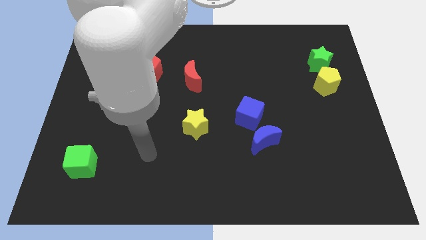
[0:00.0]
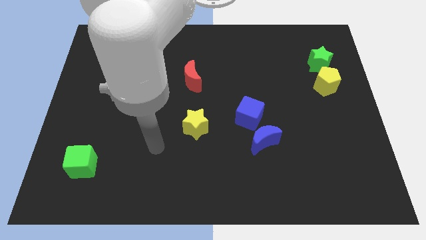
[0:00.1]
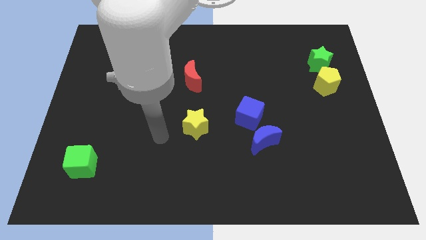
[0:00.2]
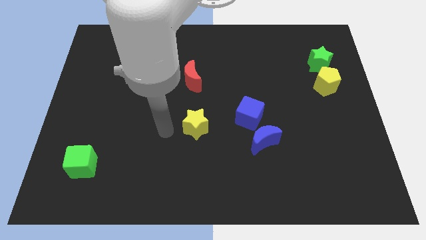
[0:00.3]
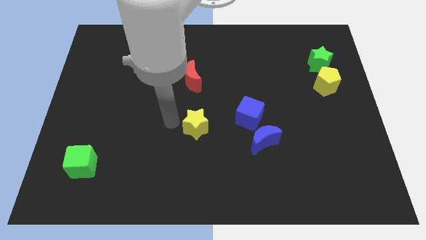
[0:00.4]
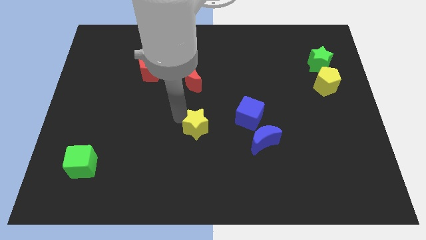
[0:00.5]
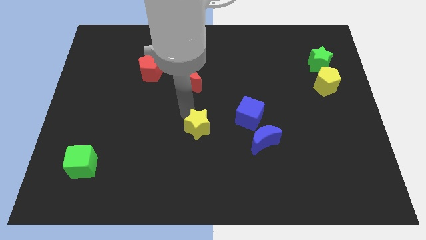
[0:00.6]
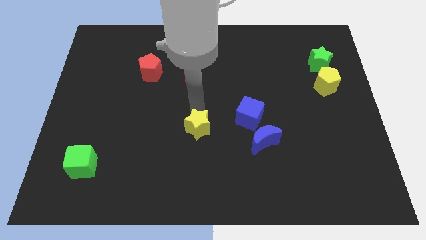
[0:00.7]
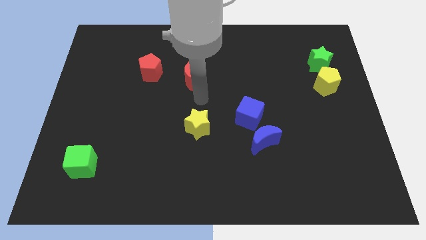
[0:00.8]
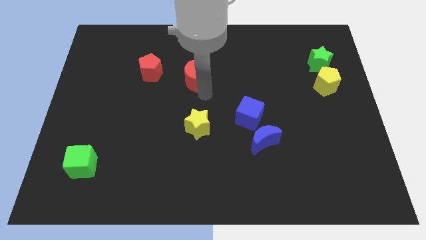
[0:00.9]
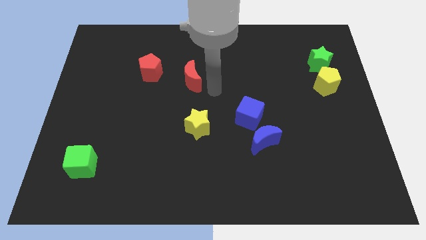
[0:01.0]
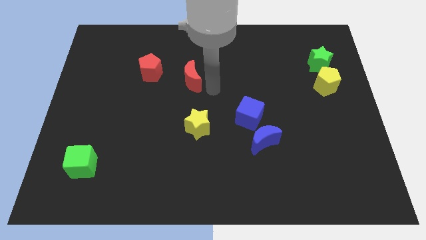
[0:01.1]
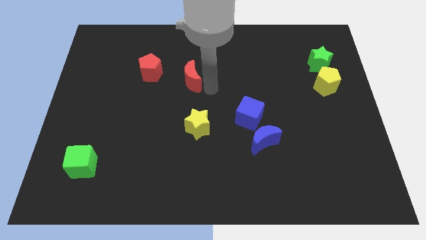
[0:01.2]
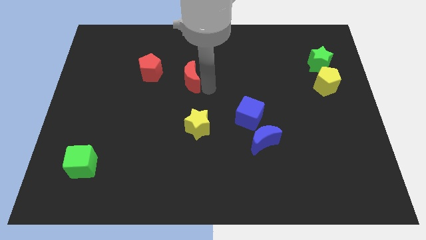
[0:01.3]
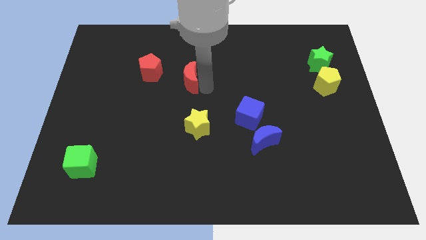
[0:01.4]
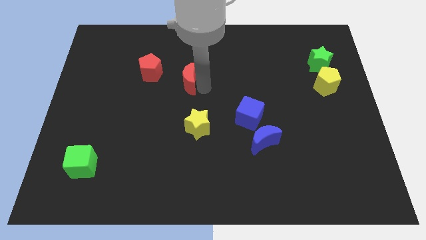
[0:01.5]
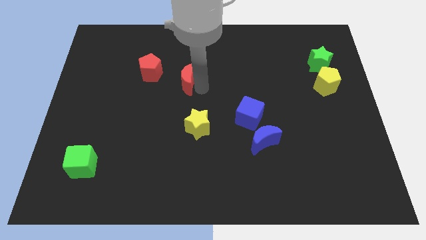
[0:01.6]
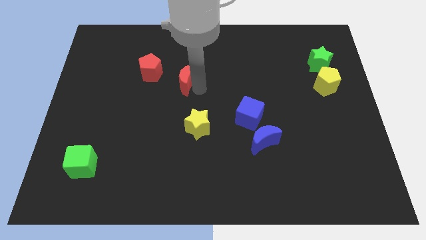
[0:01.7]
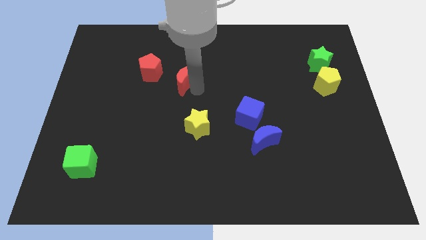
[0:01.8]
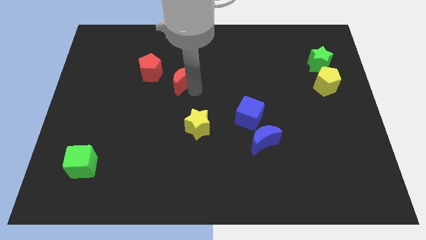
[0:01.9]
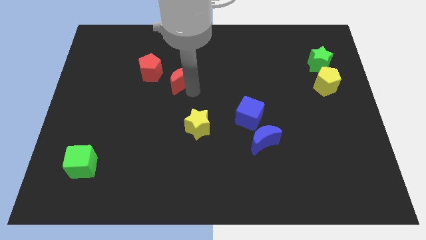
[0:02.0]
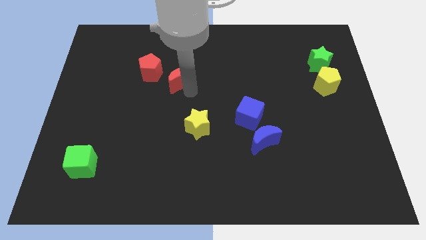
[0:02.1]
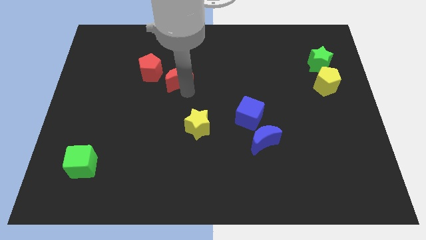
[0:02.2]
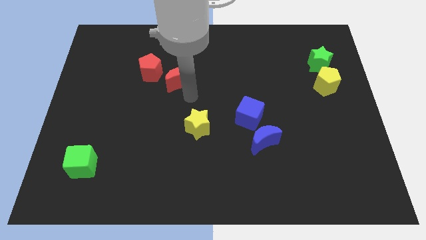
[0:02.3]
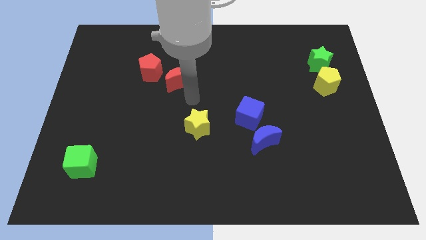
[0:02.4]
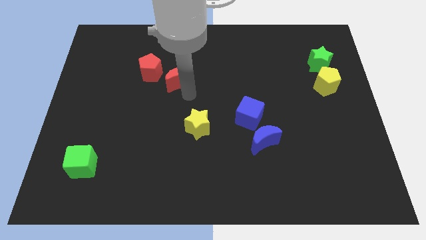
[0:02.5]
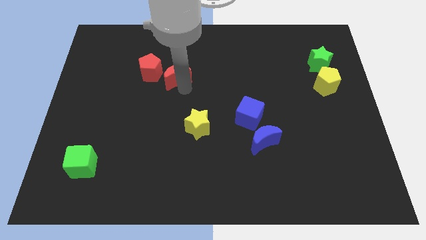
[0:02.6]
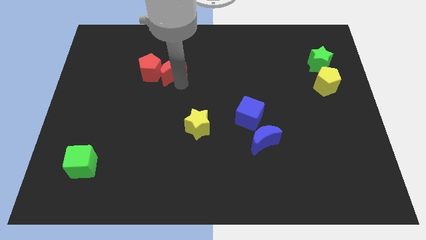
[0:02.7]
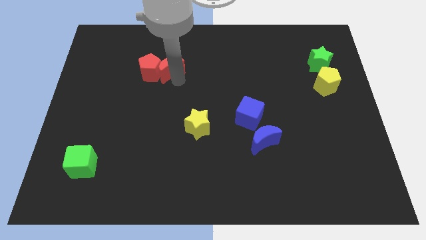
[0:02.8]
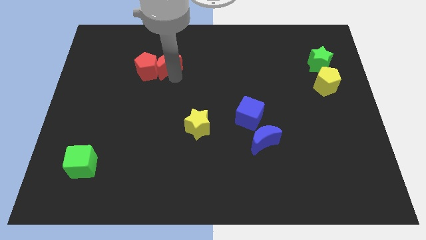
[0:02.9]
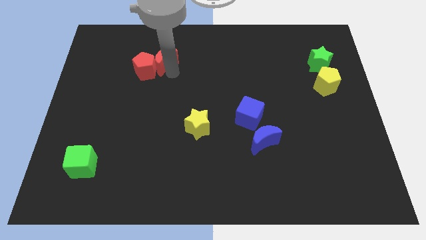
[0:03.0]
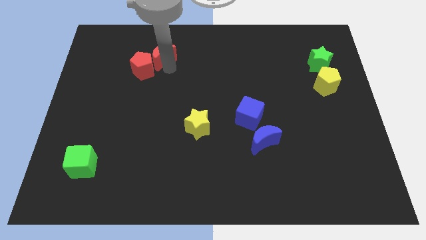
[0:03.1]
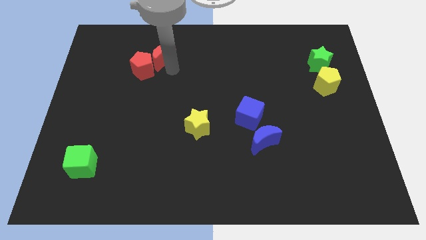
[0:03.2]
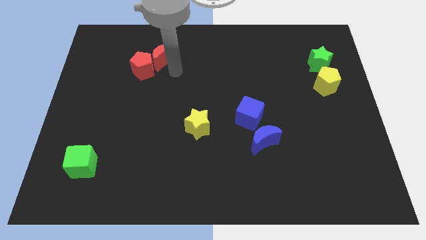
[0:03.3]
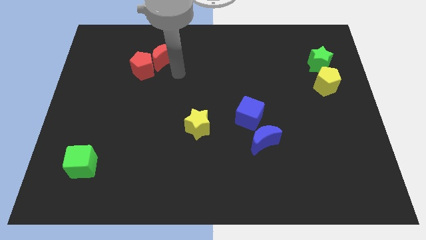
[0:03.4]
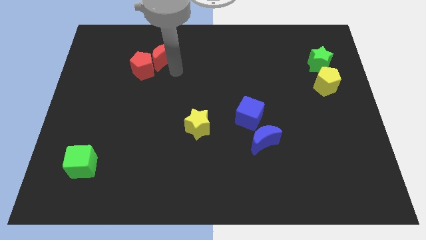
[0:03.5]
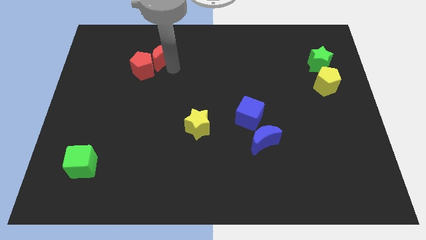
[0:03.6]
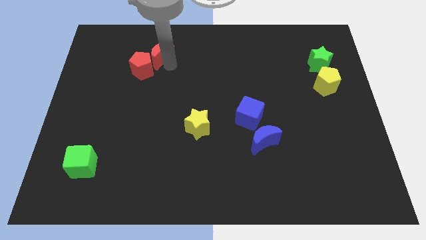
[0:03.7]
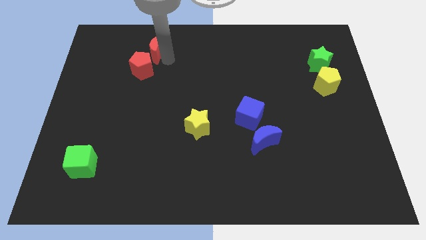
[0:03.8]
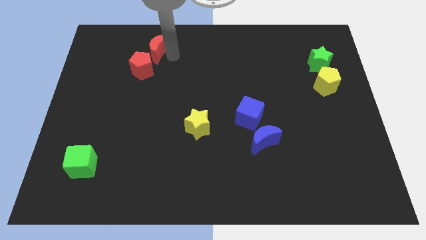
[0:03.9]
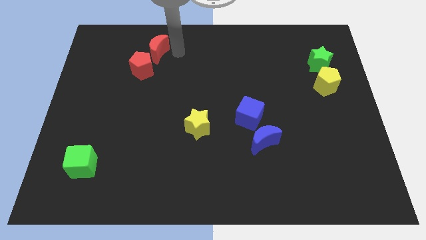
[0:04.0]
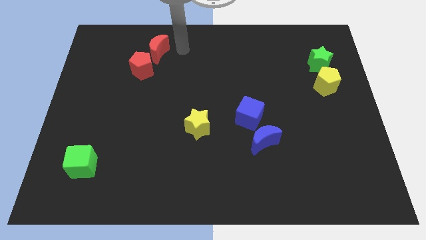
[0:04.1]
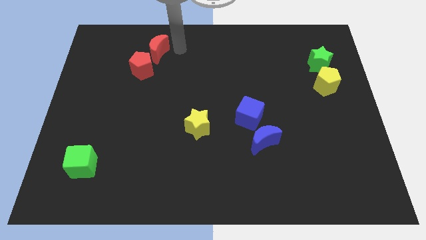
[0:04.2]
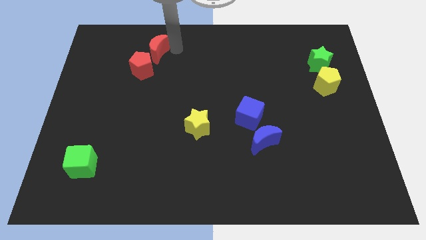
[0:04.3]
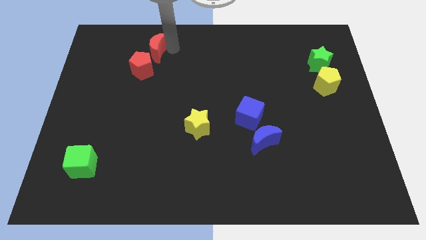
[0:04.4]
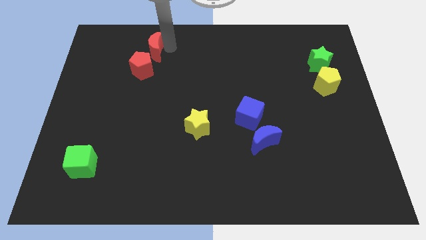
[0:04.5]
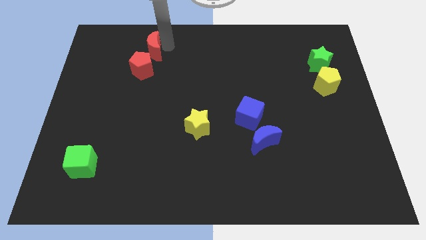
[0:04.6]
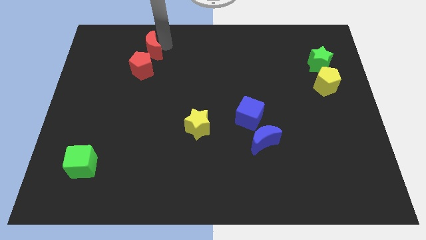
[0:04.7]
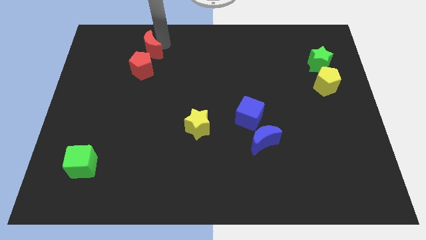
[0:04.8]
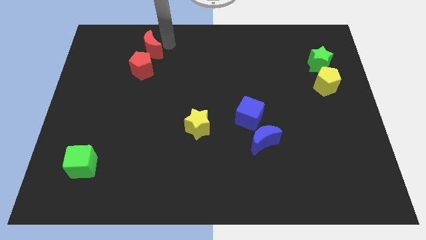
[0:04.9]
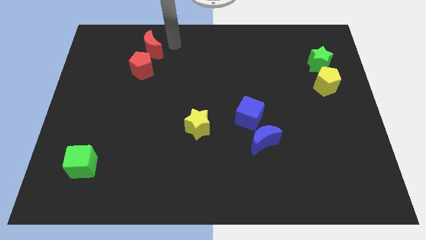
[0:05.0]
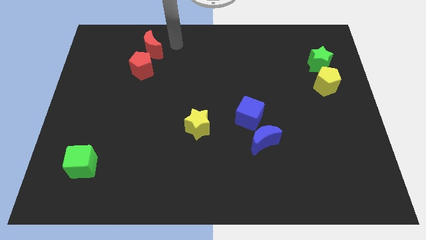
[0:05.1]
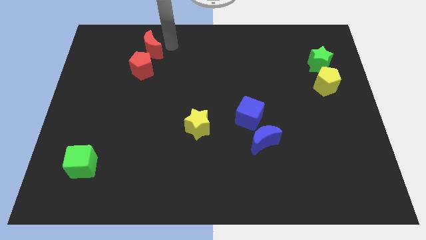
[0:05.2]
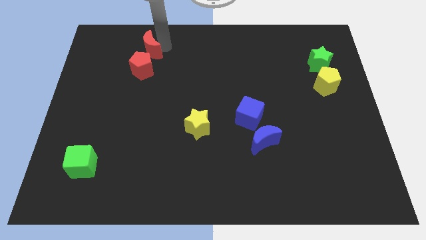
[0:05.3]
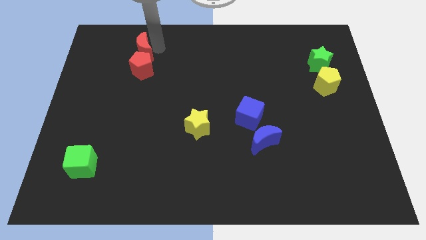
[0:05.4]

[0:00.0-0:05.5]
move the red moon diagonally up and to the left of the red pentagon

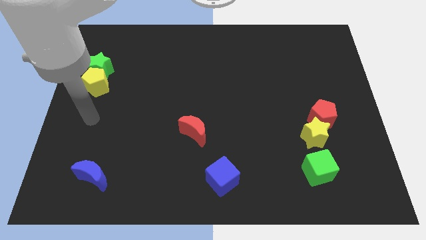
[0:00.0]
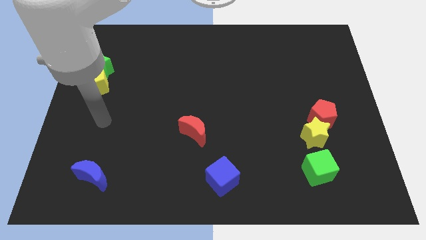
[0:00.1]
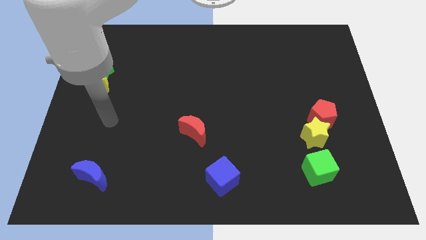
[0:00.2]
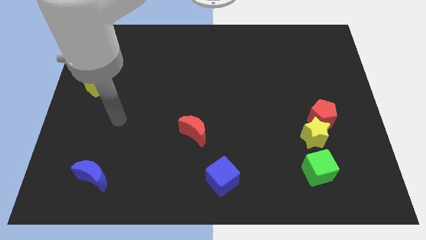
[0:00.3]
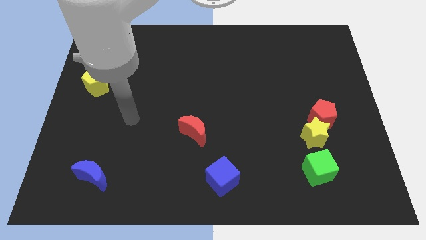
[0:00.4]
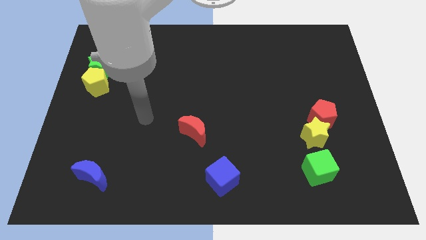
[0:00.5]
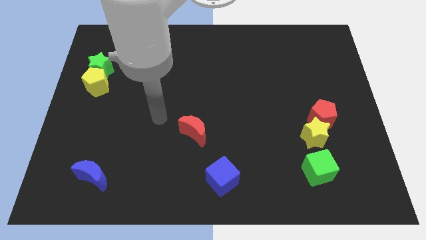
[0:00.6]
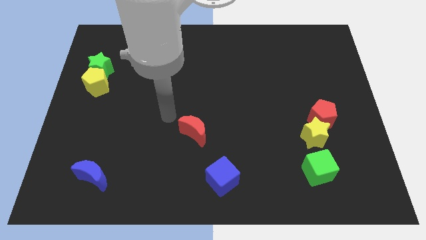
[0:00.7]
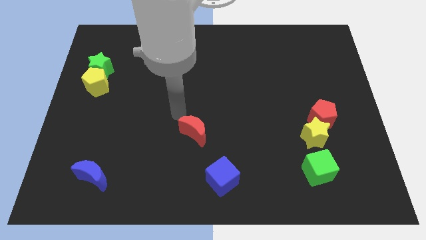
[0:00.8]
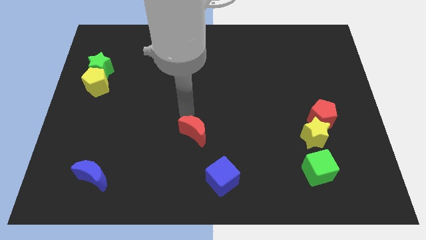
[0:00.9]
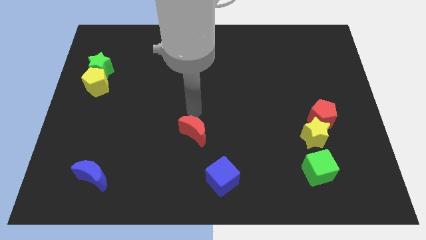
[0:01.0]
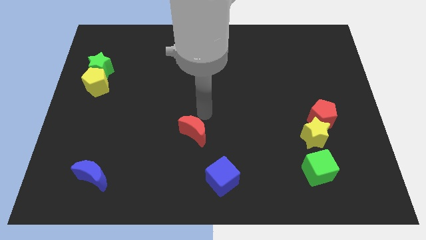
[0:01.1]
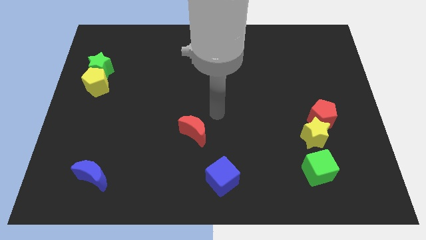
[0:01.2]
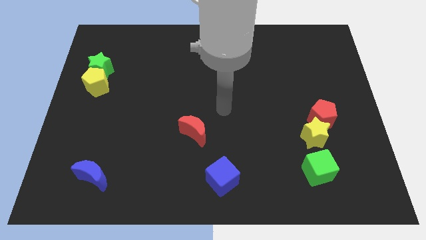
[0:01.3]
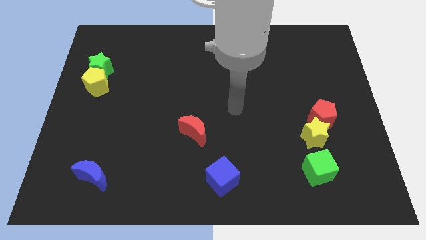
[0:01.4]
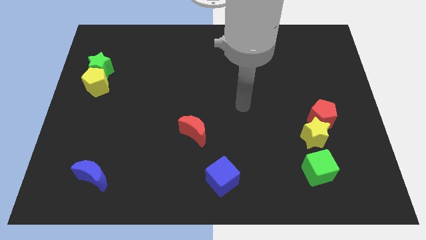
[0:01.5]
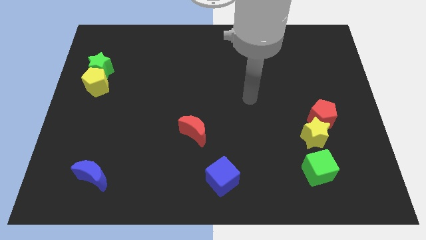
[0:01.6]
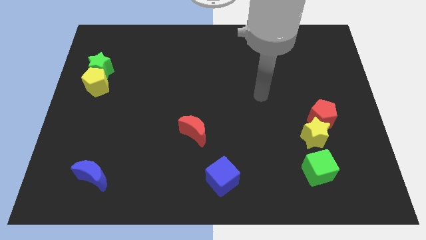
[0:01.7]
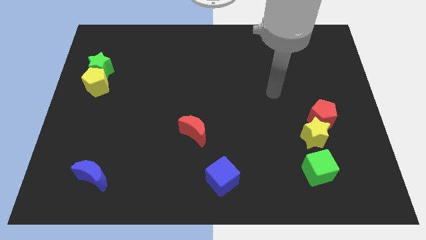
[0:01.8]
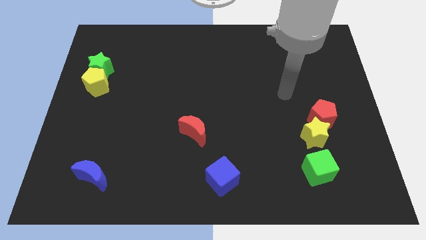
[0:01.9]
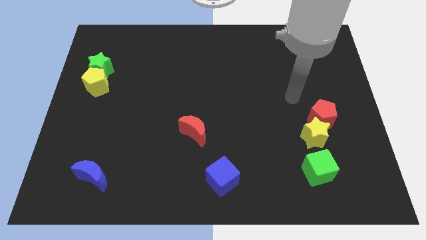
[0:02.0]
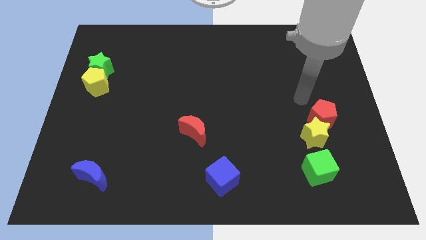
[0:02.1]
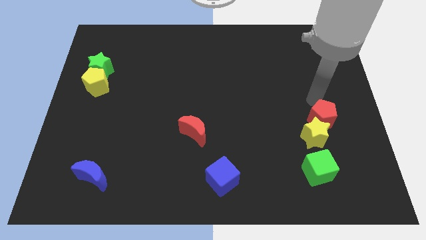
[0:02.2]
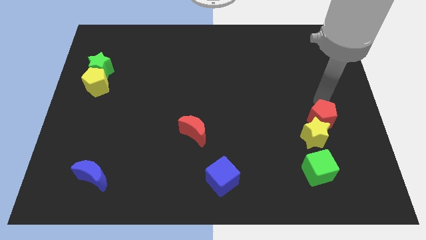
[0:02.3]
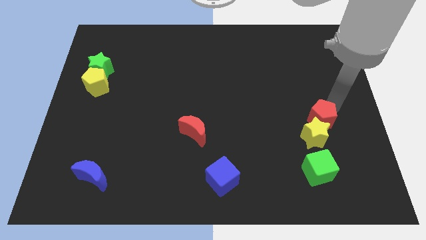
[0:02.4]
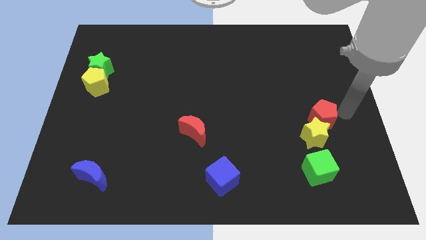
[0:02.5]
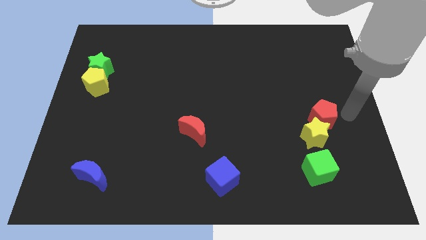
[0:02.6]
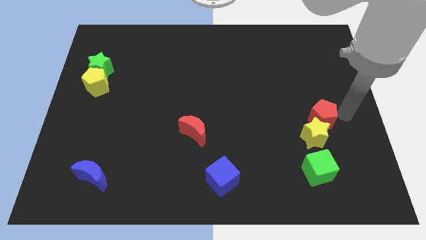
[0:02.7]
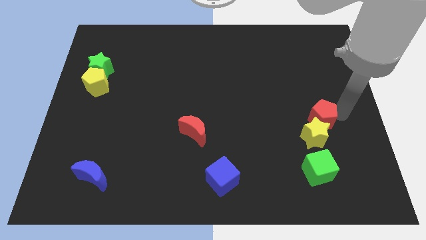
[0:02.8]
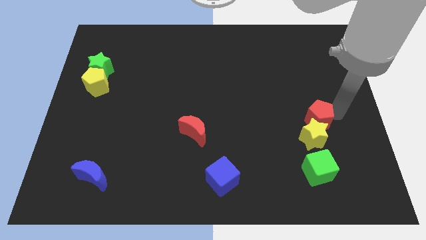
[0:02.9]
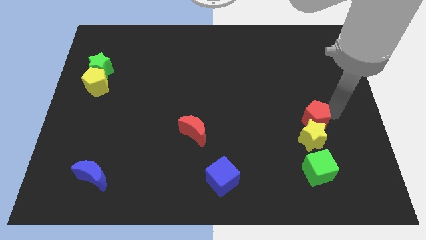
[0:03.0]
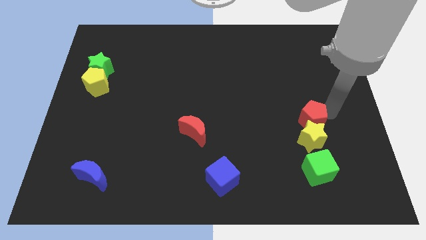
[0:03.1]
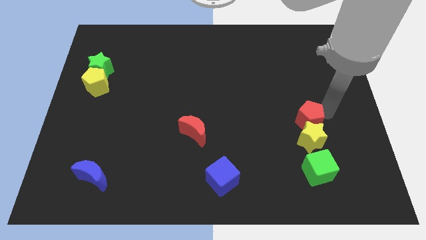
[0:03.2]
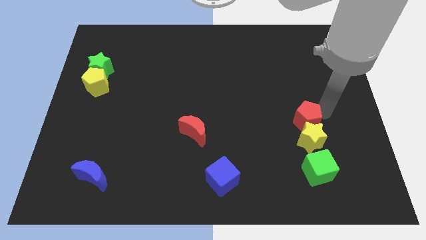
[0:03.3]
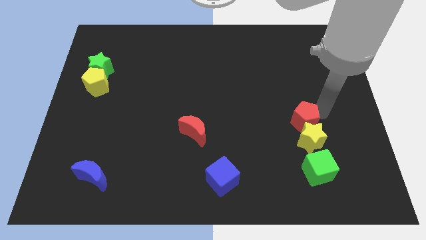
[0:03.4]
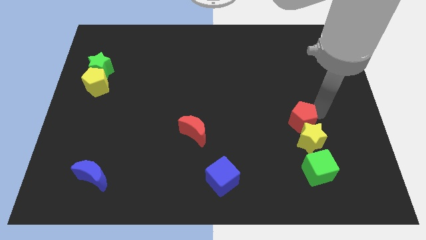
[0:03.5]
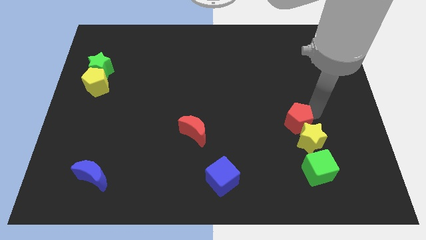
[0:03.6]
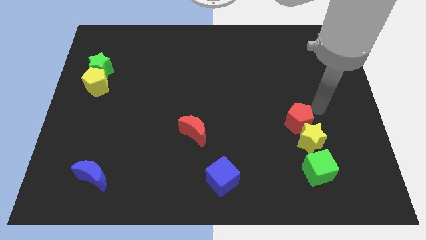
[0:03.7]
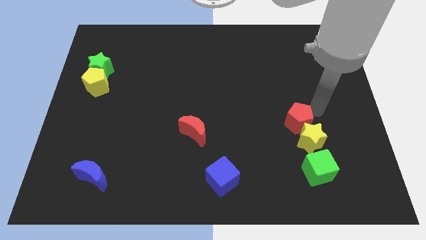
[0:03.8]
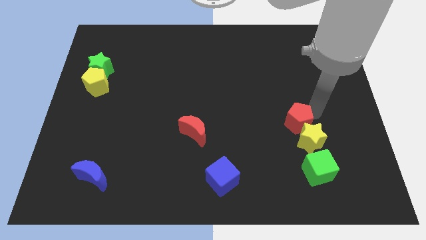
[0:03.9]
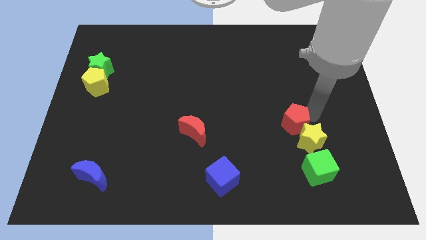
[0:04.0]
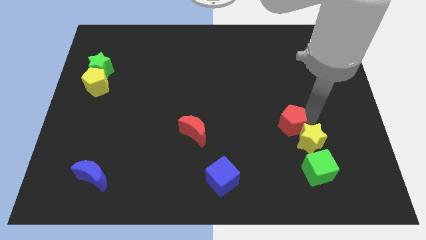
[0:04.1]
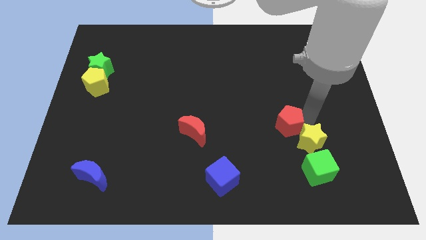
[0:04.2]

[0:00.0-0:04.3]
put the red pentagon left of the yellow star
